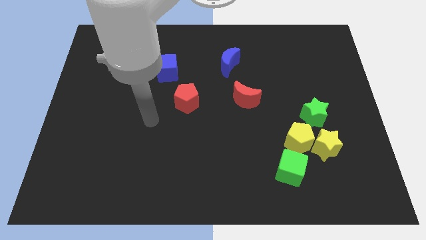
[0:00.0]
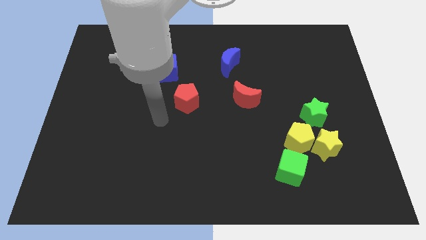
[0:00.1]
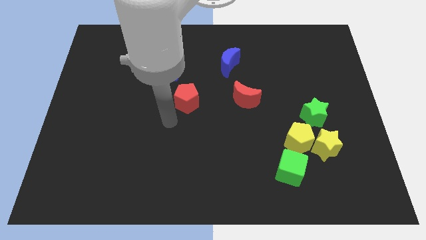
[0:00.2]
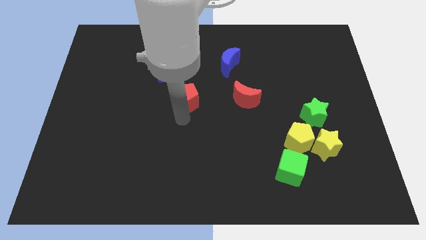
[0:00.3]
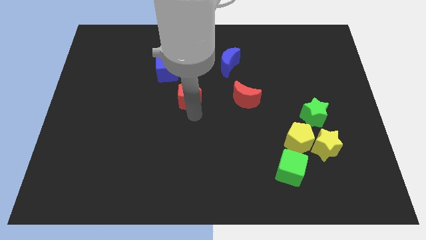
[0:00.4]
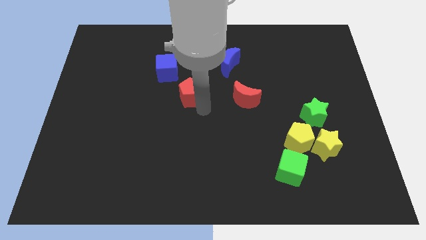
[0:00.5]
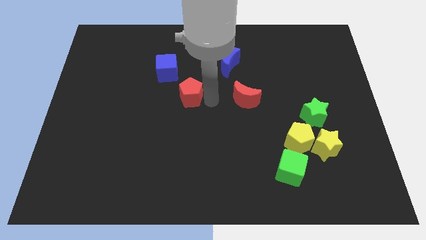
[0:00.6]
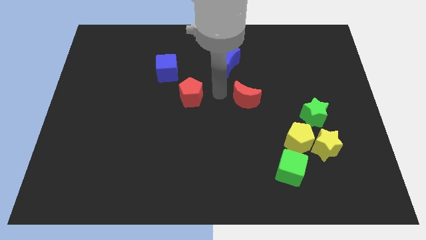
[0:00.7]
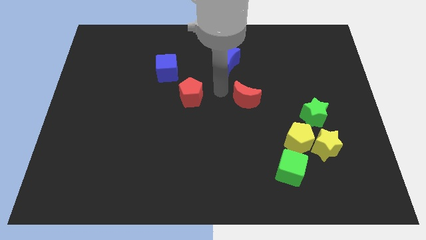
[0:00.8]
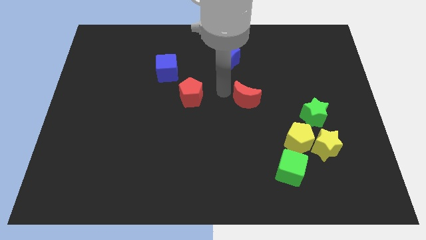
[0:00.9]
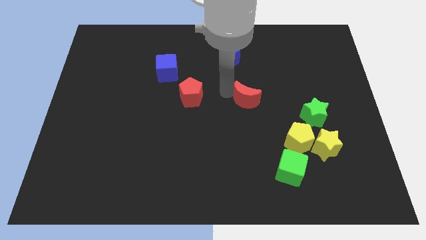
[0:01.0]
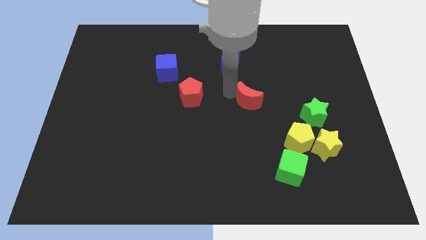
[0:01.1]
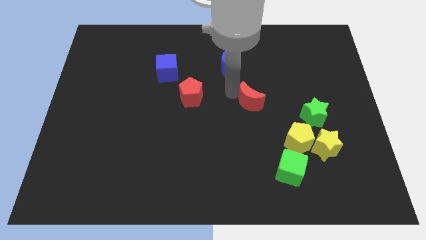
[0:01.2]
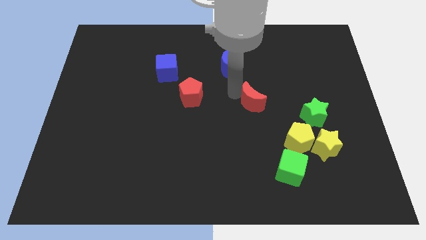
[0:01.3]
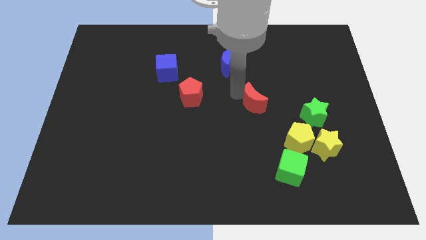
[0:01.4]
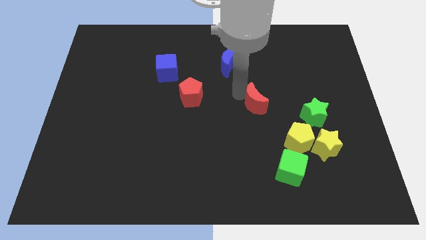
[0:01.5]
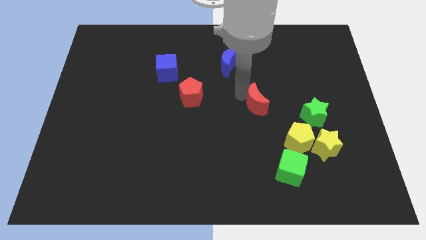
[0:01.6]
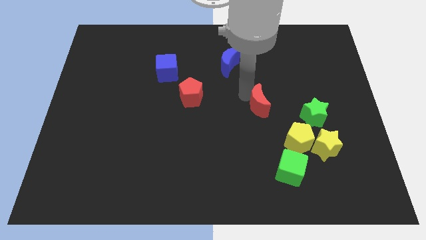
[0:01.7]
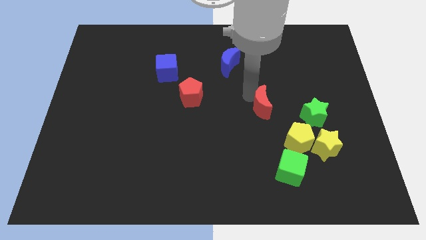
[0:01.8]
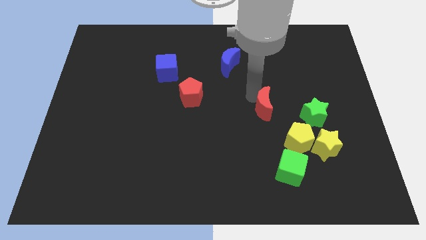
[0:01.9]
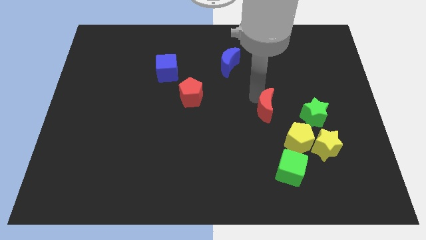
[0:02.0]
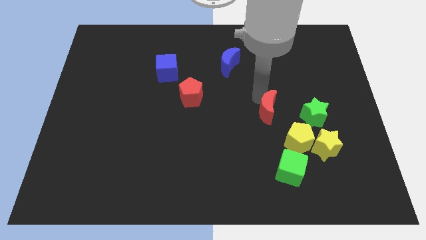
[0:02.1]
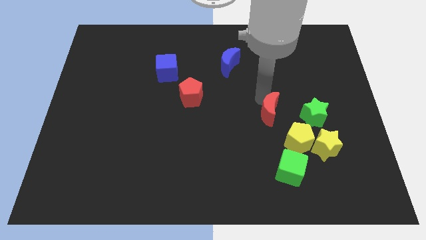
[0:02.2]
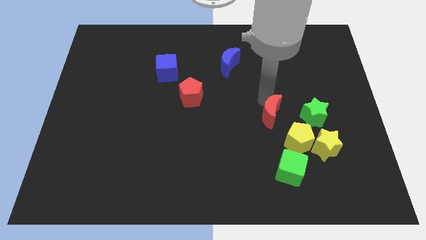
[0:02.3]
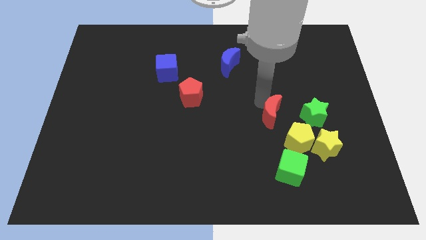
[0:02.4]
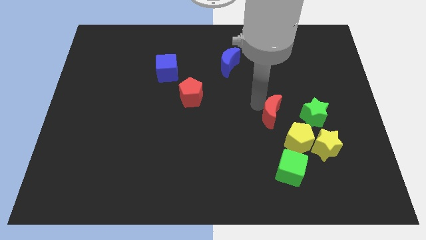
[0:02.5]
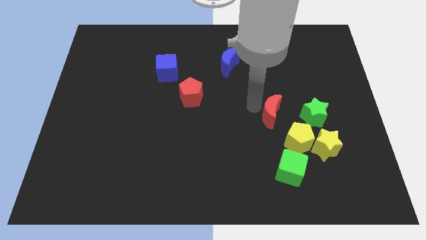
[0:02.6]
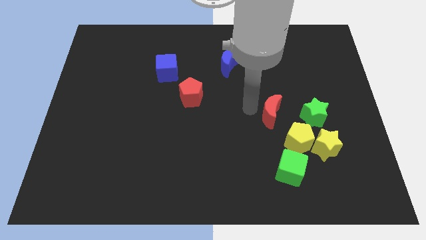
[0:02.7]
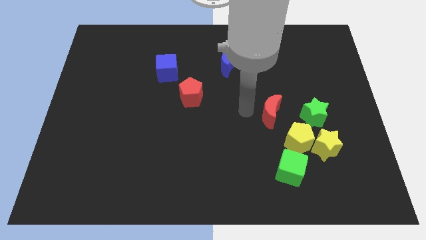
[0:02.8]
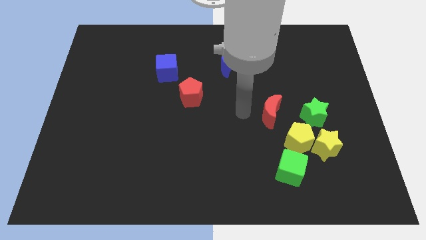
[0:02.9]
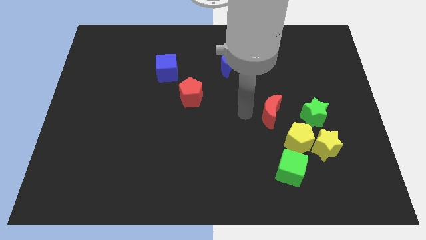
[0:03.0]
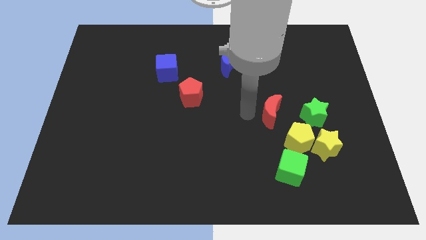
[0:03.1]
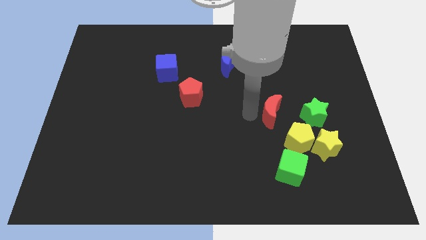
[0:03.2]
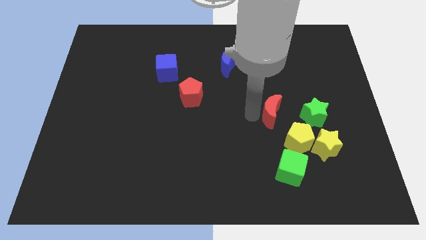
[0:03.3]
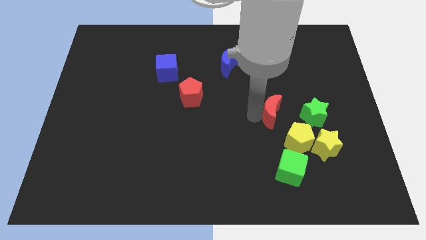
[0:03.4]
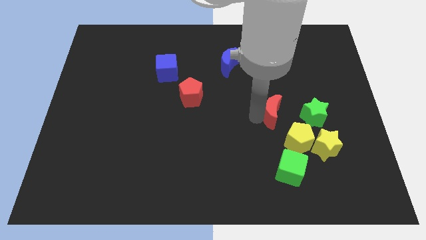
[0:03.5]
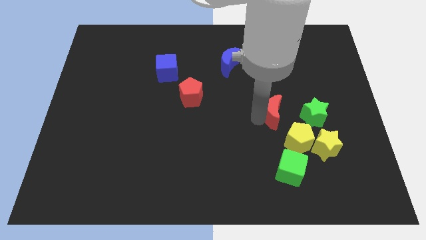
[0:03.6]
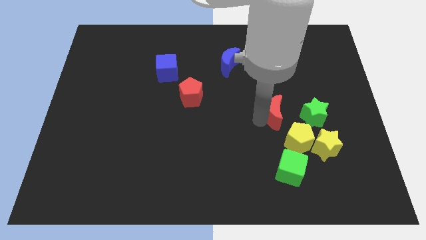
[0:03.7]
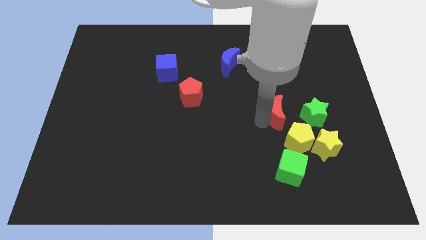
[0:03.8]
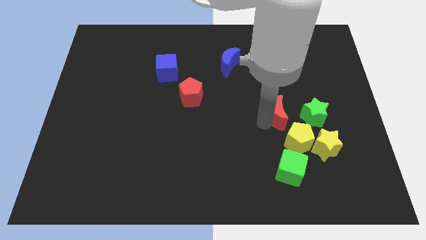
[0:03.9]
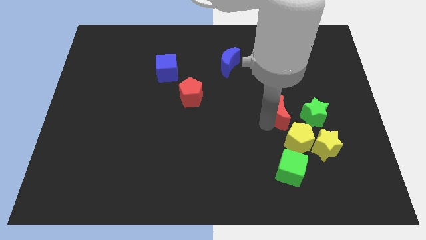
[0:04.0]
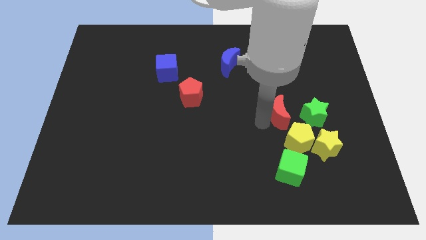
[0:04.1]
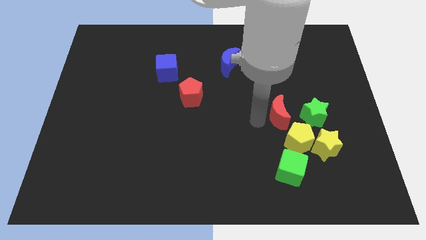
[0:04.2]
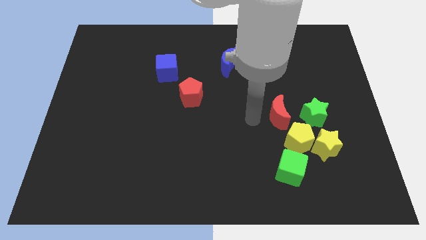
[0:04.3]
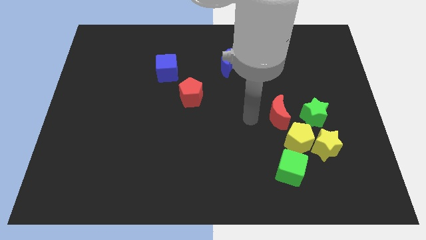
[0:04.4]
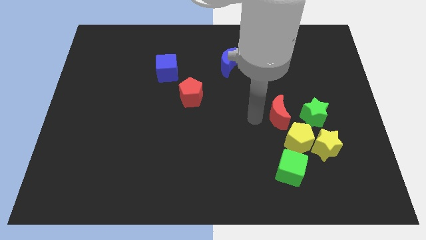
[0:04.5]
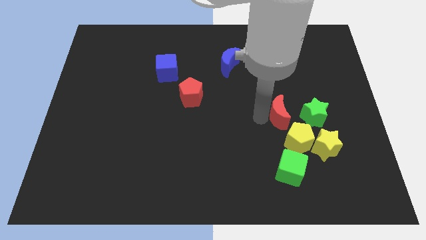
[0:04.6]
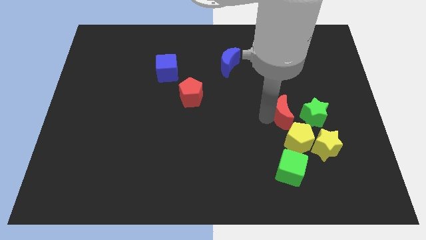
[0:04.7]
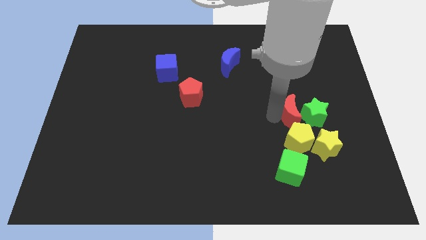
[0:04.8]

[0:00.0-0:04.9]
push the red moon to the green star

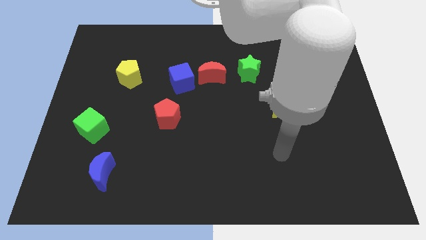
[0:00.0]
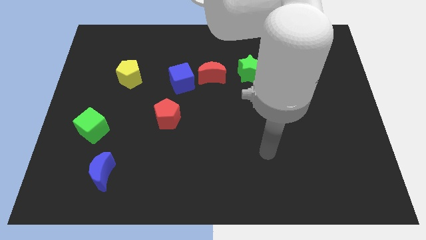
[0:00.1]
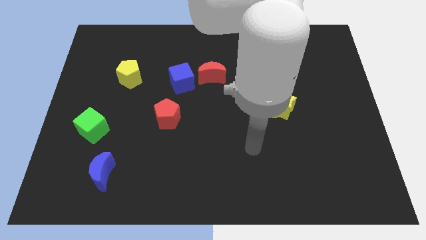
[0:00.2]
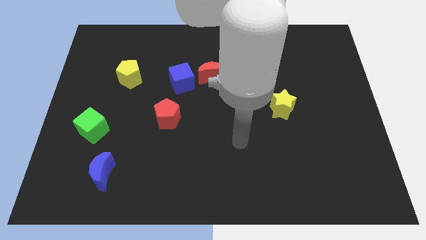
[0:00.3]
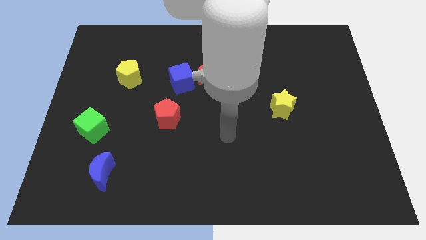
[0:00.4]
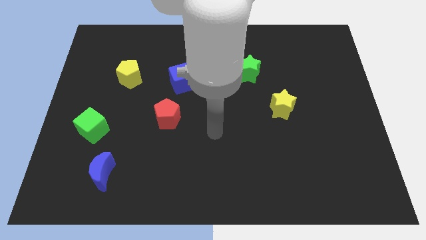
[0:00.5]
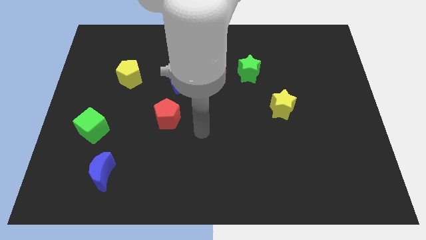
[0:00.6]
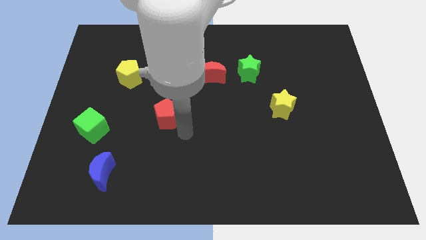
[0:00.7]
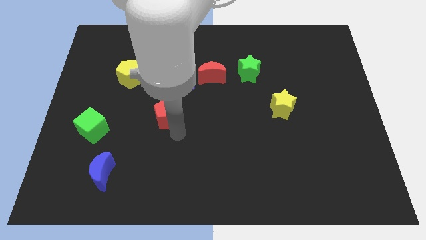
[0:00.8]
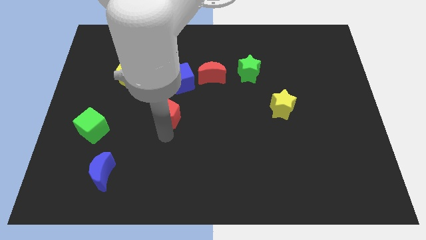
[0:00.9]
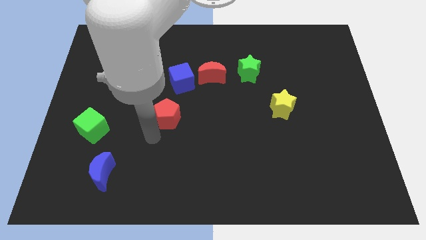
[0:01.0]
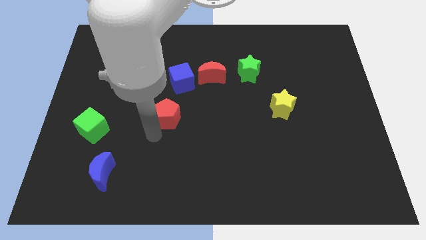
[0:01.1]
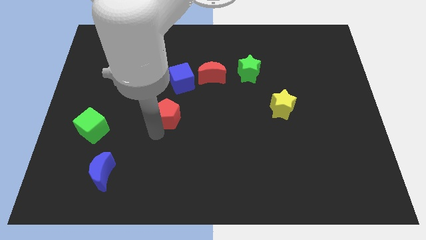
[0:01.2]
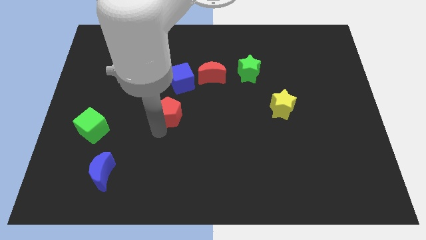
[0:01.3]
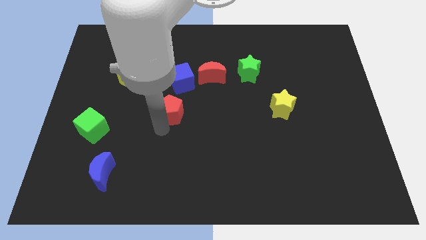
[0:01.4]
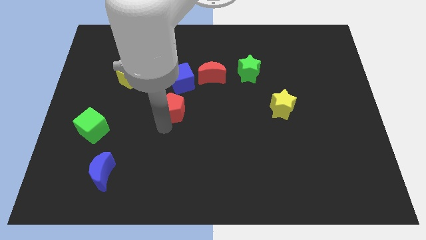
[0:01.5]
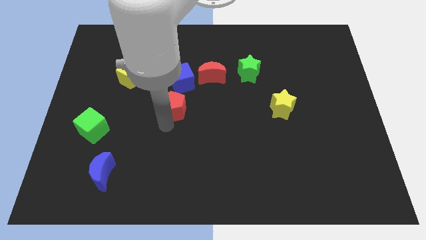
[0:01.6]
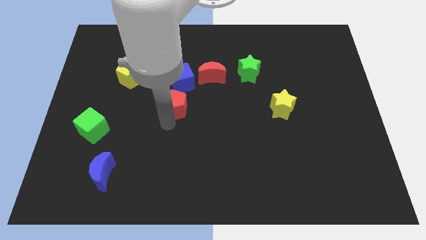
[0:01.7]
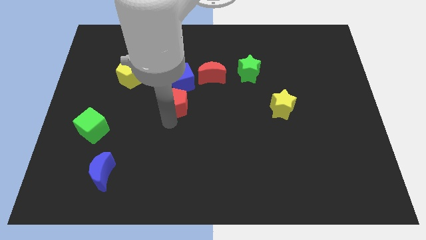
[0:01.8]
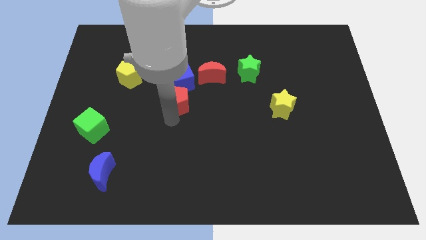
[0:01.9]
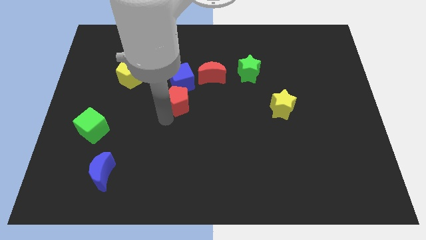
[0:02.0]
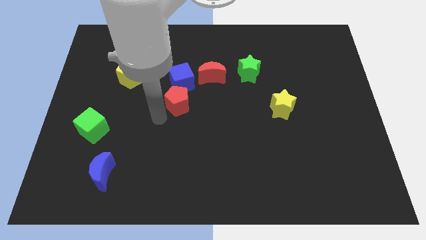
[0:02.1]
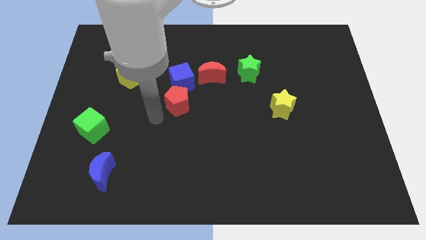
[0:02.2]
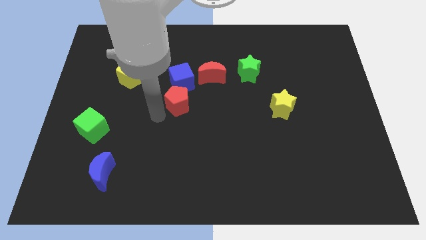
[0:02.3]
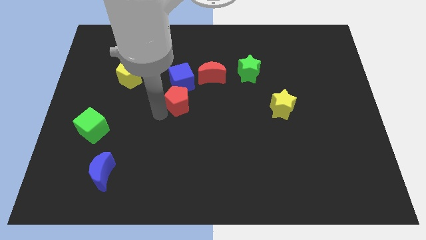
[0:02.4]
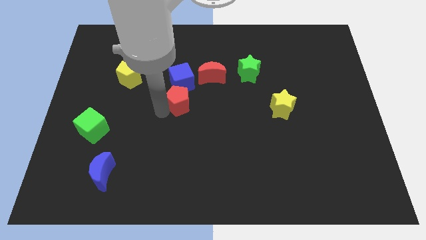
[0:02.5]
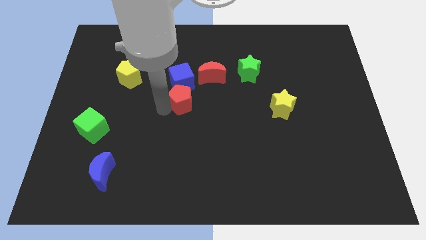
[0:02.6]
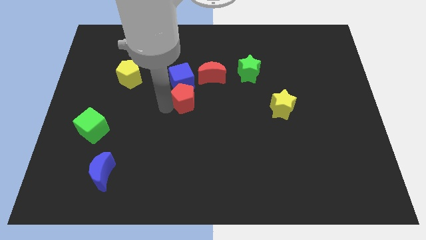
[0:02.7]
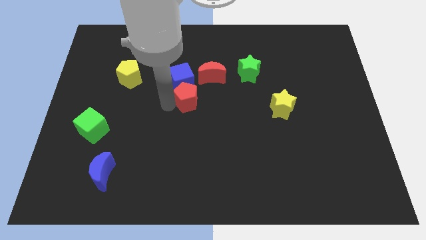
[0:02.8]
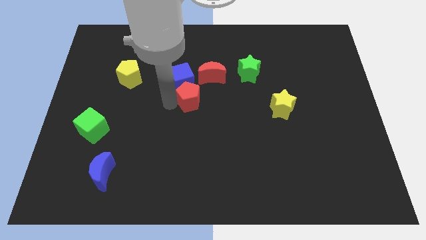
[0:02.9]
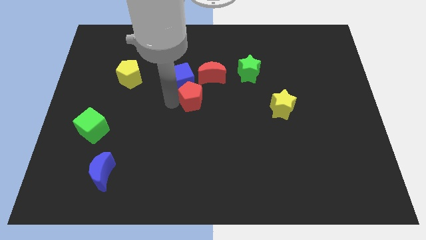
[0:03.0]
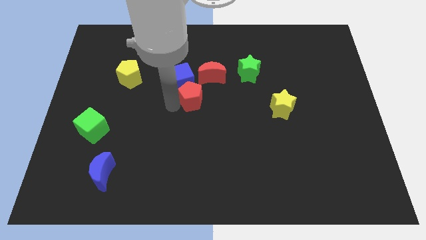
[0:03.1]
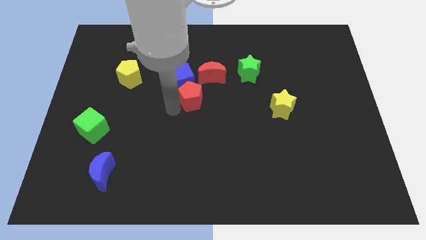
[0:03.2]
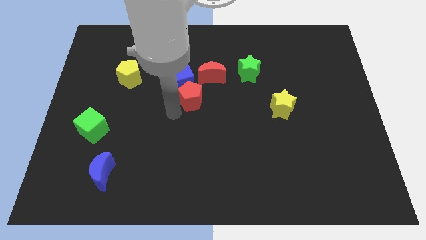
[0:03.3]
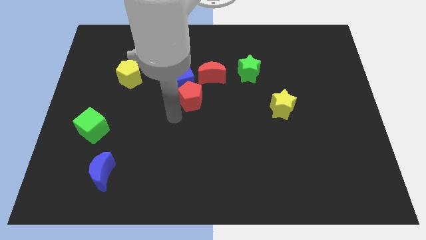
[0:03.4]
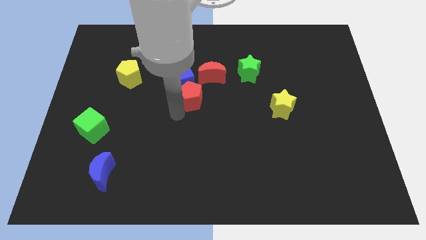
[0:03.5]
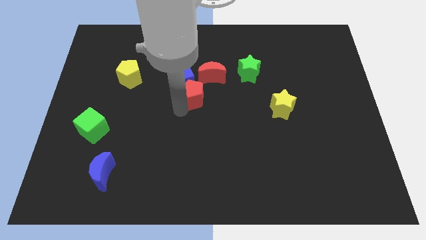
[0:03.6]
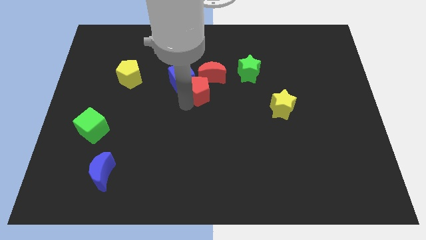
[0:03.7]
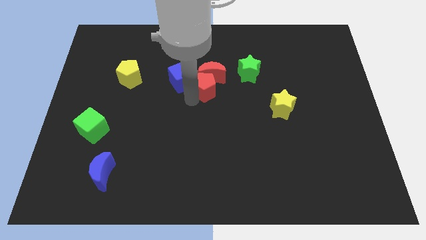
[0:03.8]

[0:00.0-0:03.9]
slide the red pentagon to the red moon
